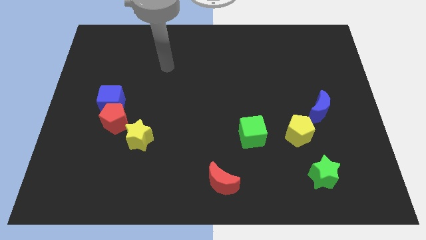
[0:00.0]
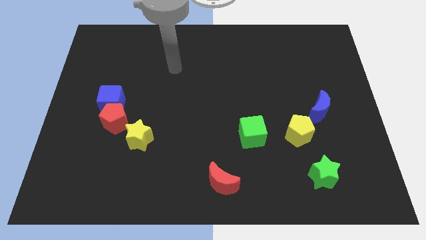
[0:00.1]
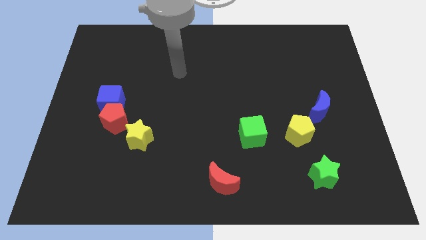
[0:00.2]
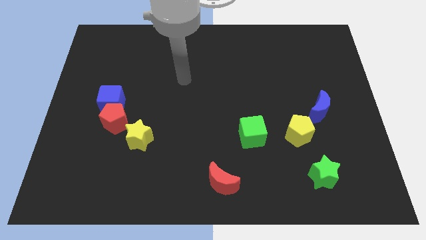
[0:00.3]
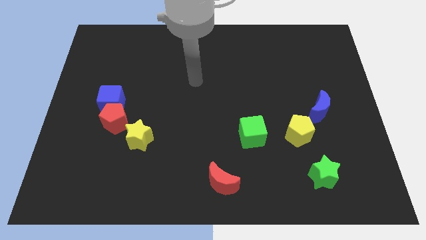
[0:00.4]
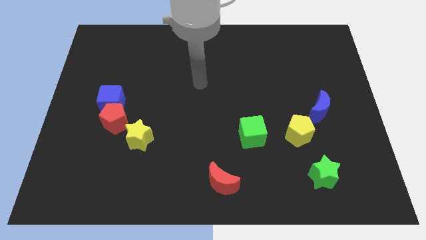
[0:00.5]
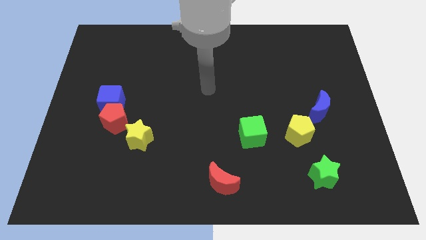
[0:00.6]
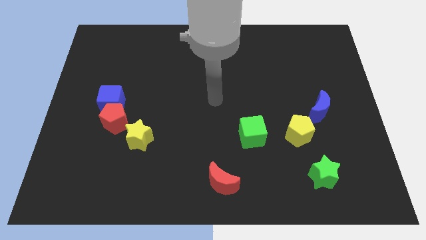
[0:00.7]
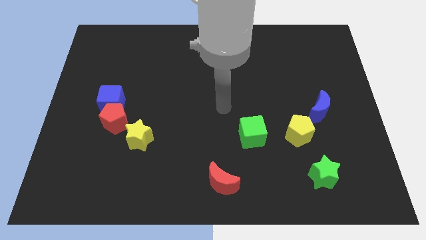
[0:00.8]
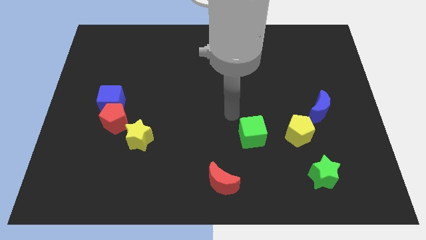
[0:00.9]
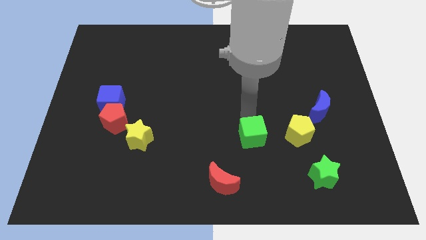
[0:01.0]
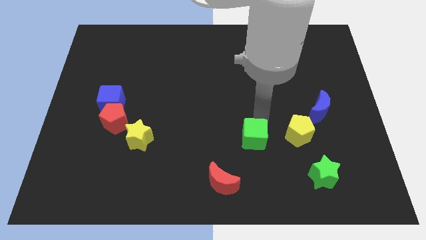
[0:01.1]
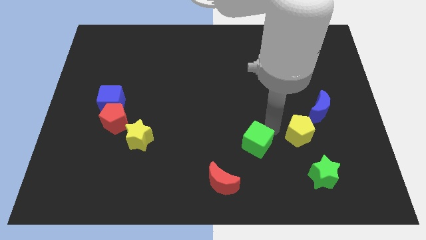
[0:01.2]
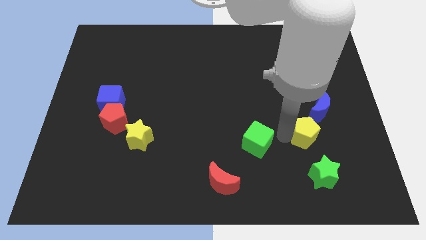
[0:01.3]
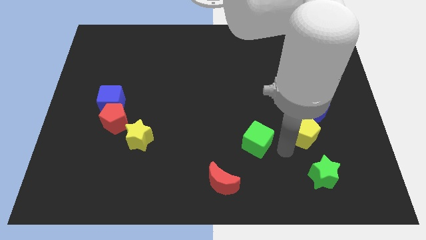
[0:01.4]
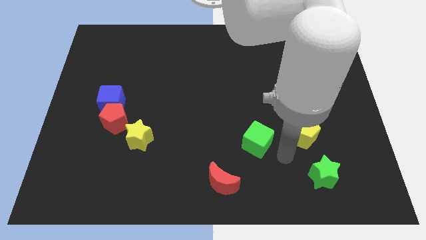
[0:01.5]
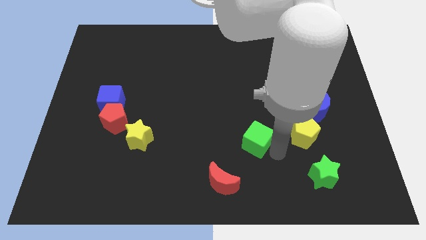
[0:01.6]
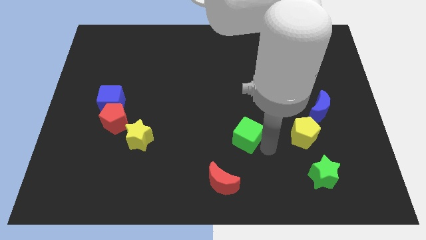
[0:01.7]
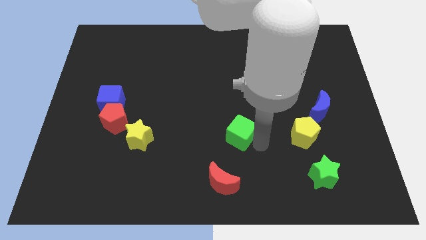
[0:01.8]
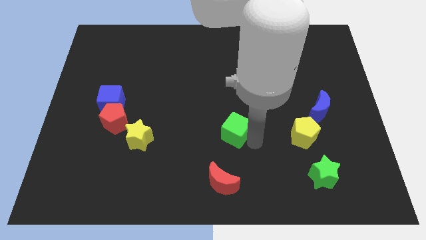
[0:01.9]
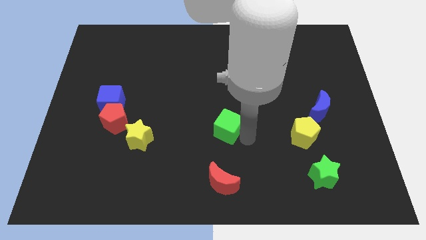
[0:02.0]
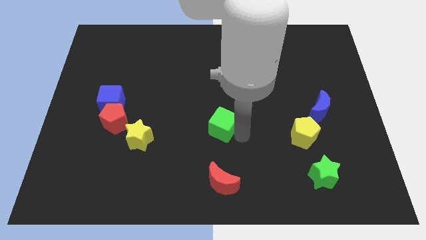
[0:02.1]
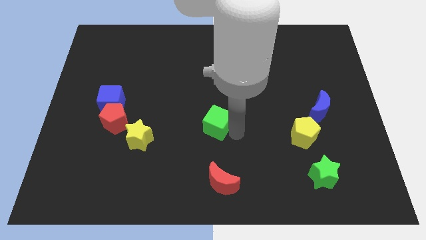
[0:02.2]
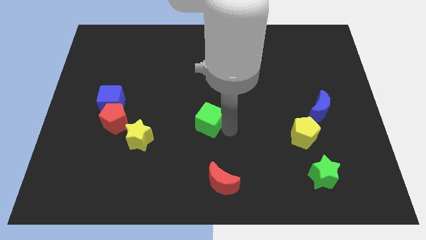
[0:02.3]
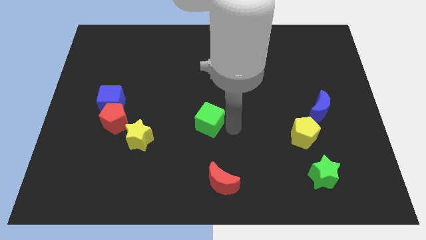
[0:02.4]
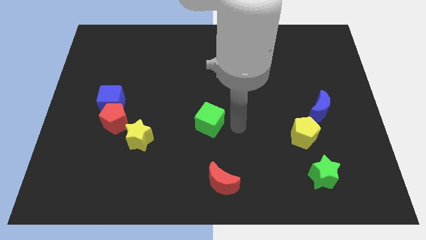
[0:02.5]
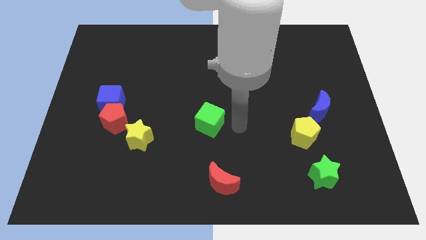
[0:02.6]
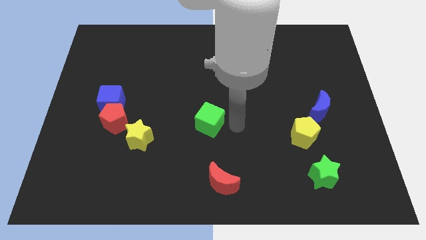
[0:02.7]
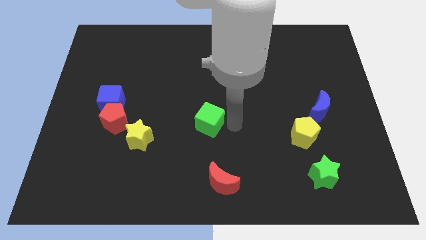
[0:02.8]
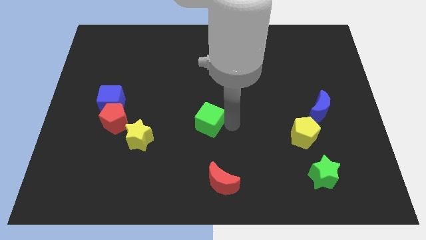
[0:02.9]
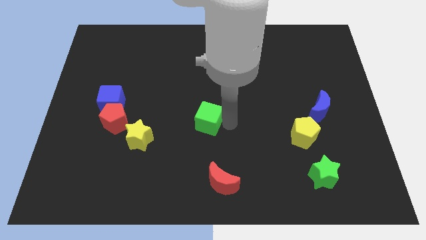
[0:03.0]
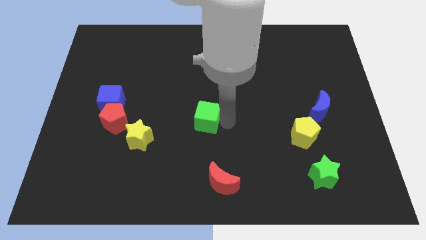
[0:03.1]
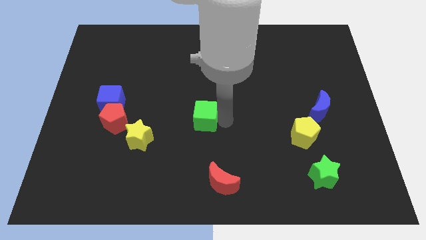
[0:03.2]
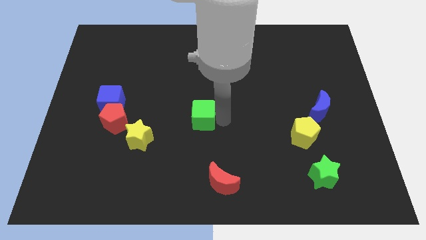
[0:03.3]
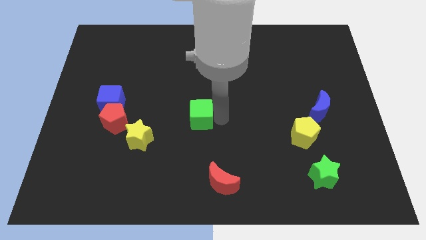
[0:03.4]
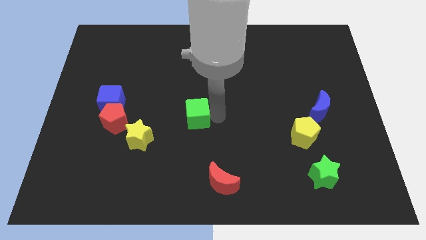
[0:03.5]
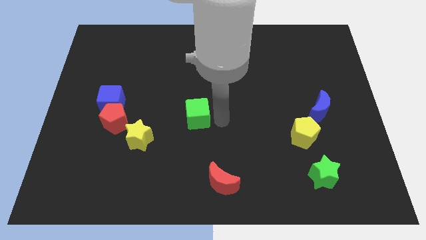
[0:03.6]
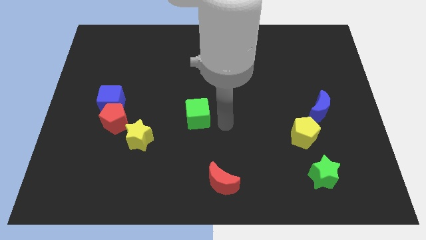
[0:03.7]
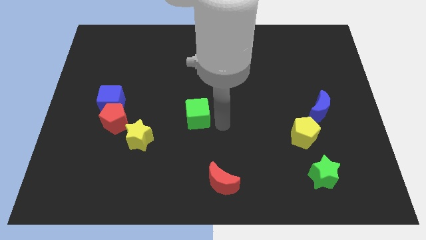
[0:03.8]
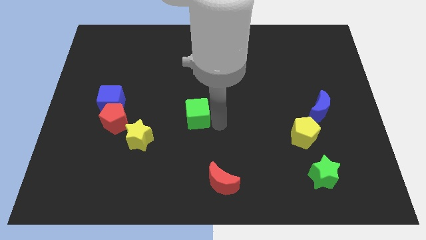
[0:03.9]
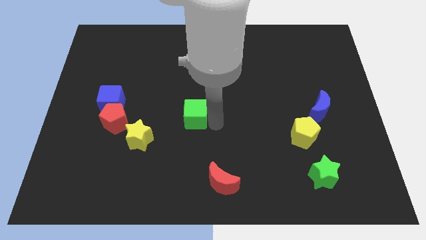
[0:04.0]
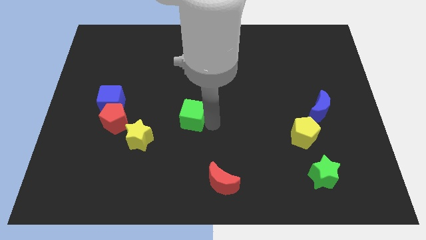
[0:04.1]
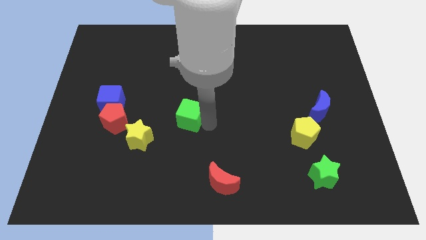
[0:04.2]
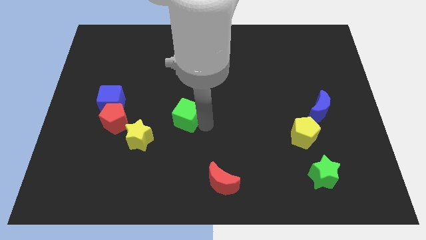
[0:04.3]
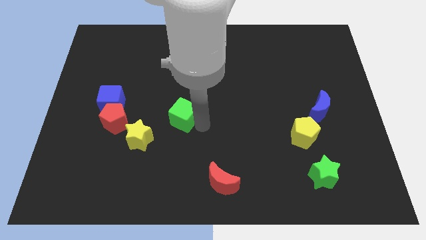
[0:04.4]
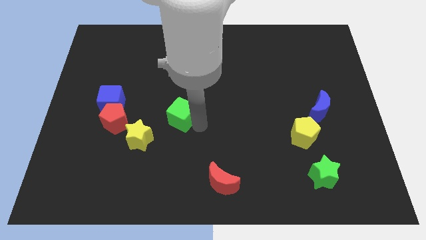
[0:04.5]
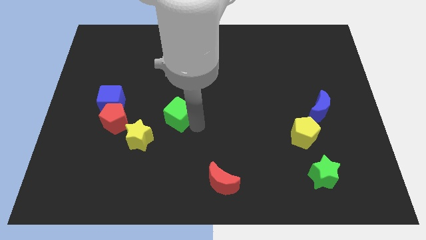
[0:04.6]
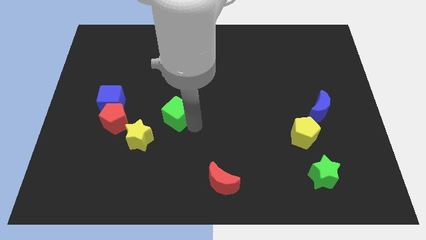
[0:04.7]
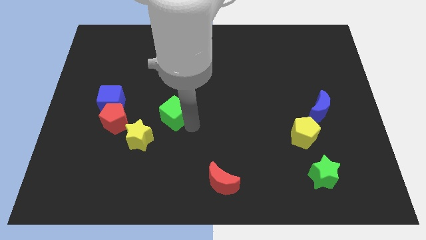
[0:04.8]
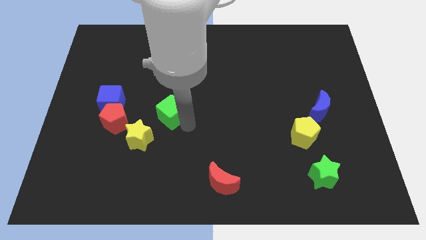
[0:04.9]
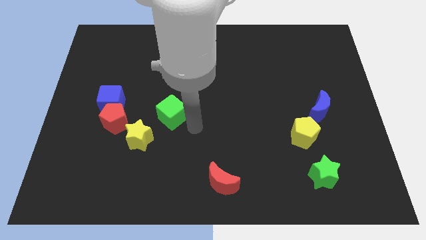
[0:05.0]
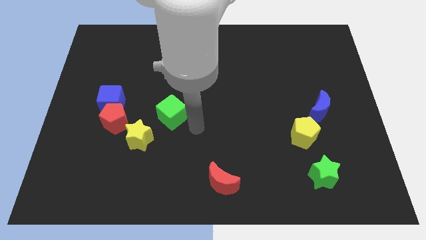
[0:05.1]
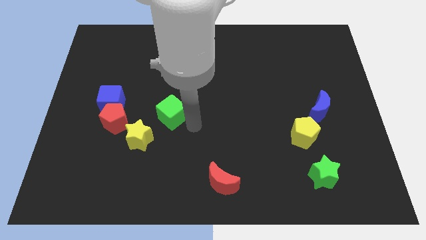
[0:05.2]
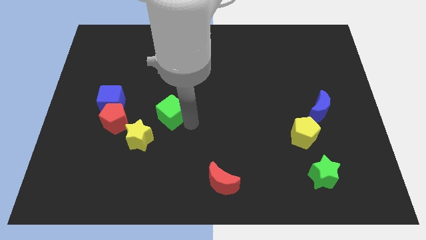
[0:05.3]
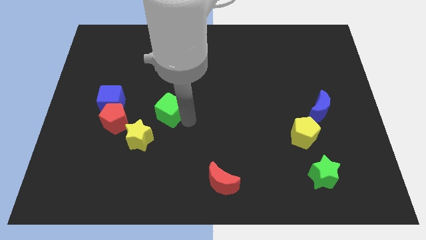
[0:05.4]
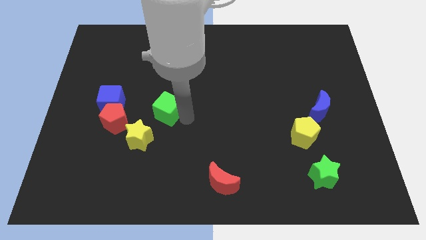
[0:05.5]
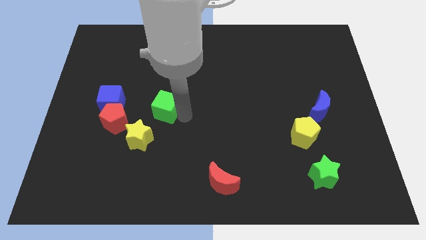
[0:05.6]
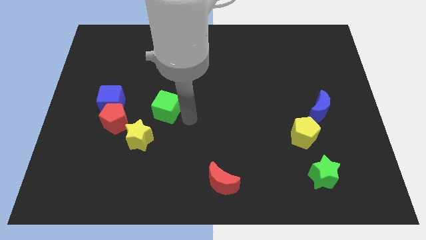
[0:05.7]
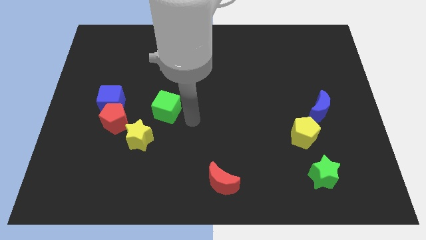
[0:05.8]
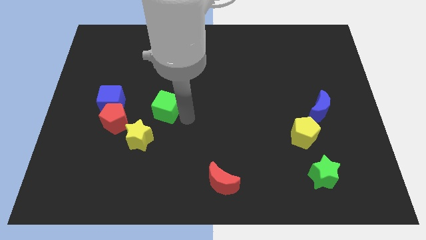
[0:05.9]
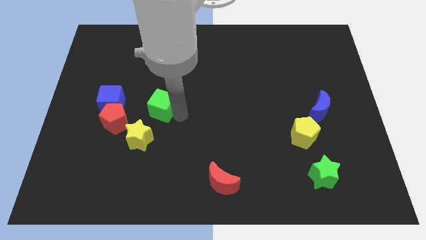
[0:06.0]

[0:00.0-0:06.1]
move the green cube above the yellow star
